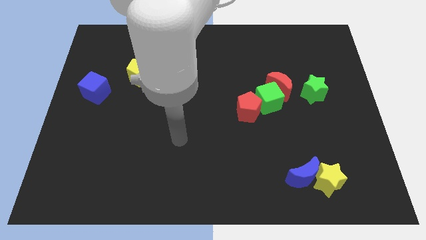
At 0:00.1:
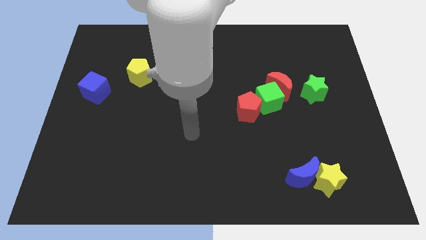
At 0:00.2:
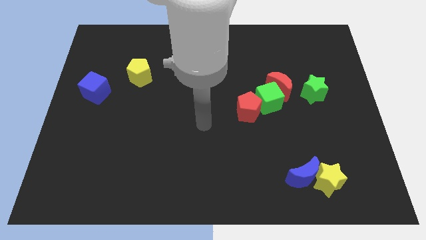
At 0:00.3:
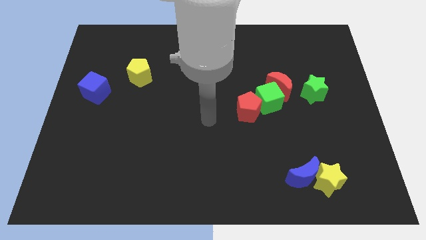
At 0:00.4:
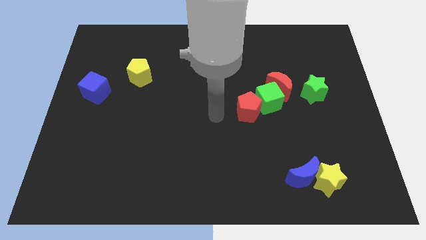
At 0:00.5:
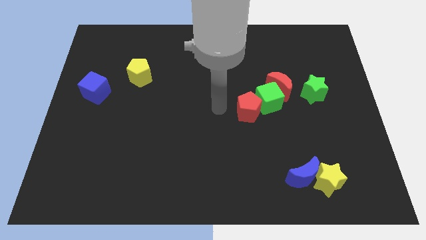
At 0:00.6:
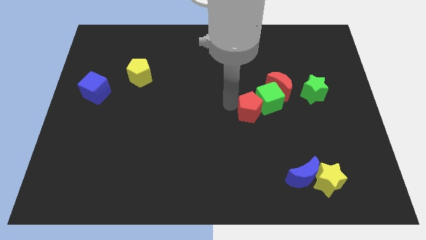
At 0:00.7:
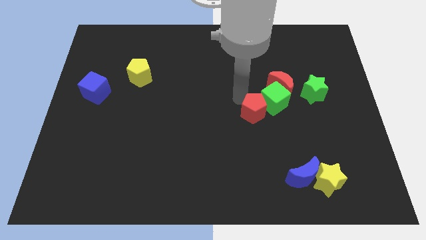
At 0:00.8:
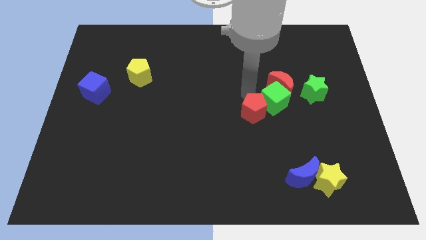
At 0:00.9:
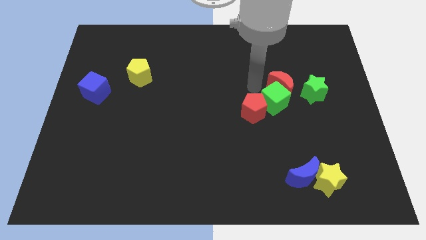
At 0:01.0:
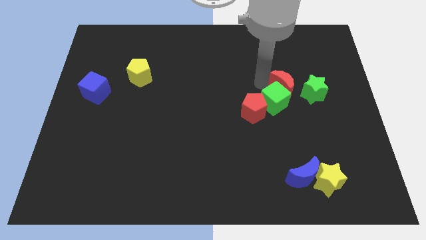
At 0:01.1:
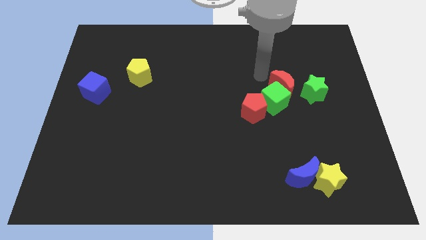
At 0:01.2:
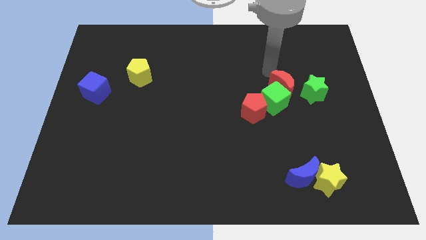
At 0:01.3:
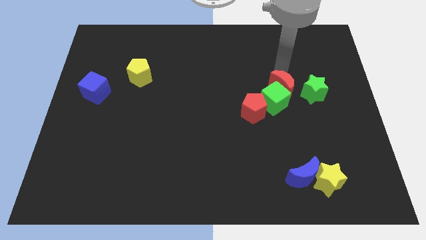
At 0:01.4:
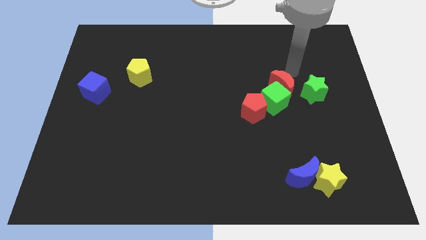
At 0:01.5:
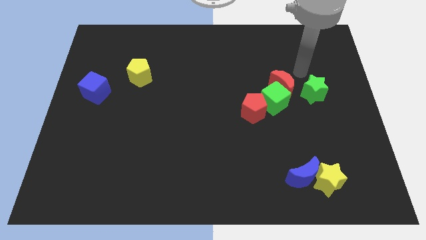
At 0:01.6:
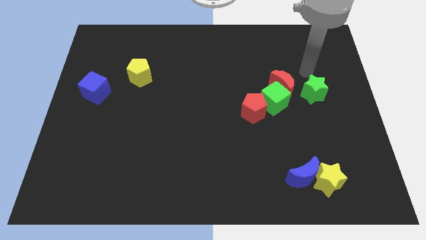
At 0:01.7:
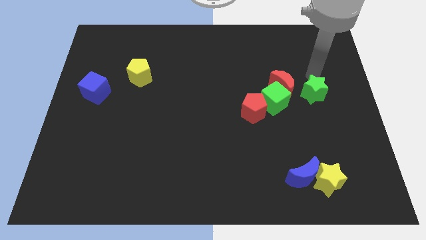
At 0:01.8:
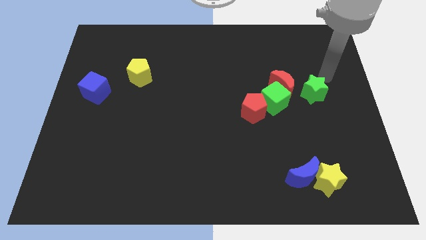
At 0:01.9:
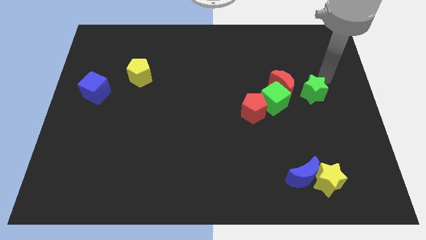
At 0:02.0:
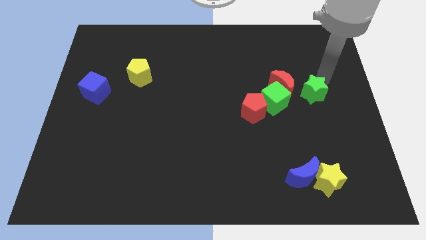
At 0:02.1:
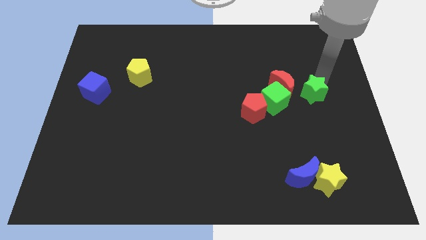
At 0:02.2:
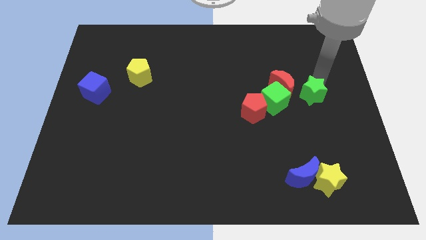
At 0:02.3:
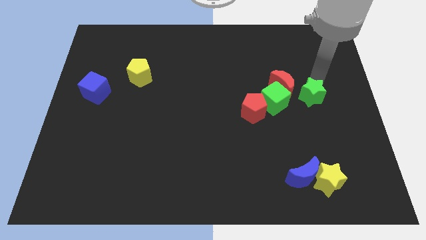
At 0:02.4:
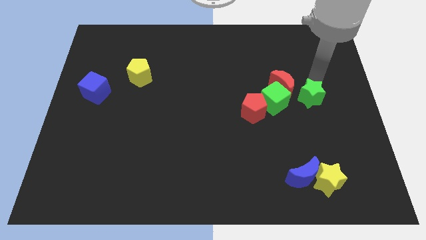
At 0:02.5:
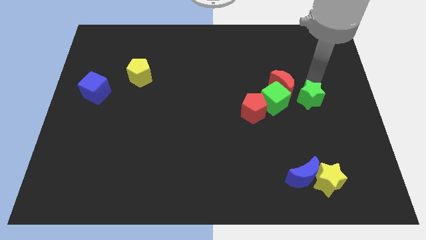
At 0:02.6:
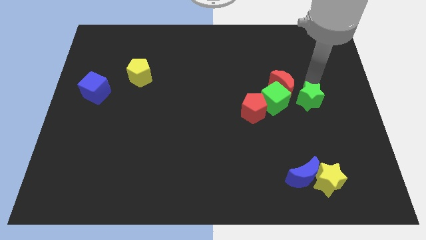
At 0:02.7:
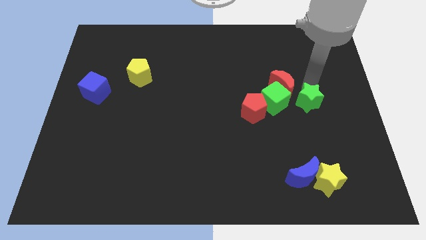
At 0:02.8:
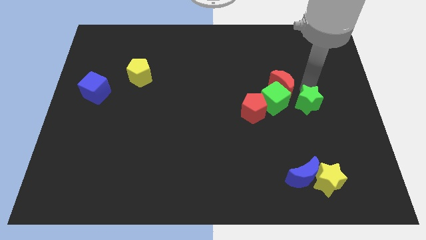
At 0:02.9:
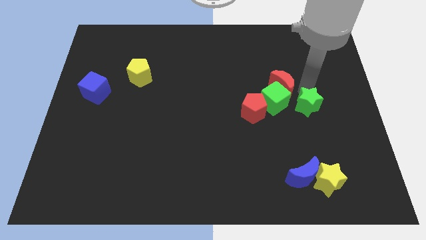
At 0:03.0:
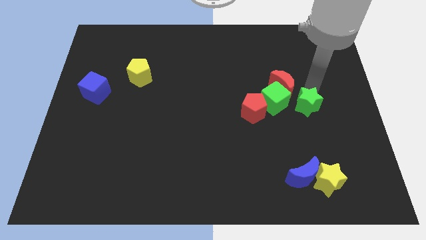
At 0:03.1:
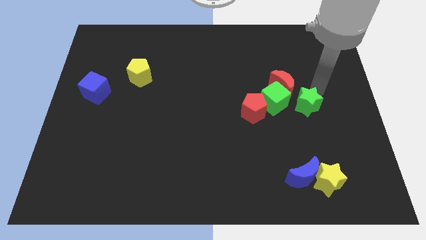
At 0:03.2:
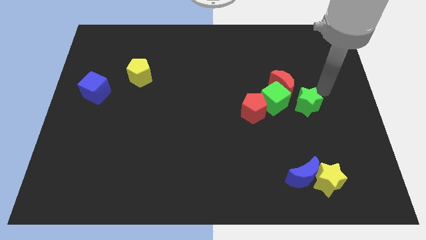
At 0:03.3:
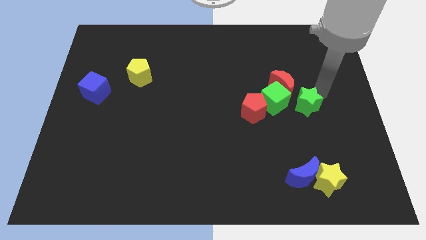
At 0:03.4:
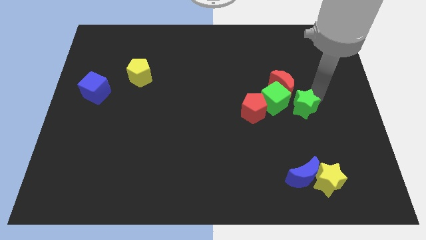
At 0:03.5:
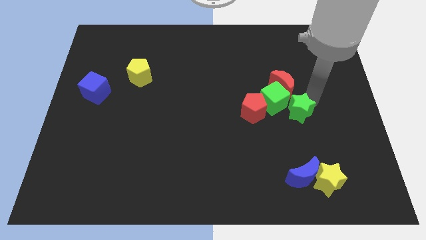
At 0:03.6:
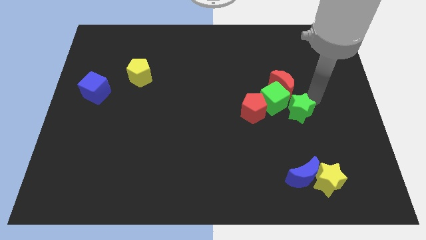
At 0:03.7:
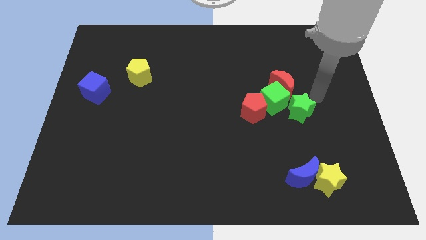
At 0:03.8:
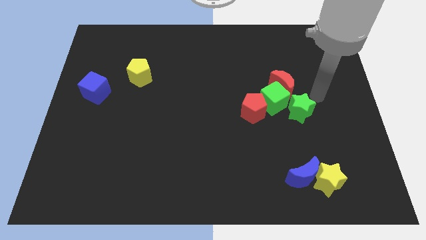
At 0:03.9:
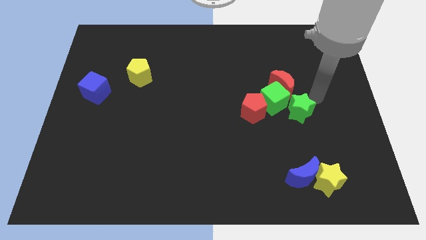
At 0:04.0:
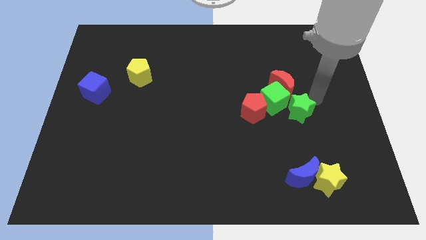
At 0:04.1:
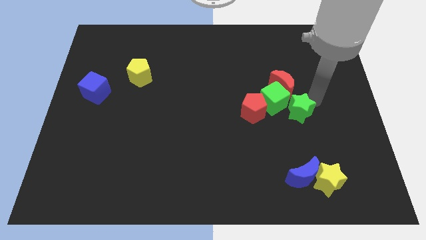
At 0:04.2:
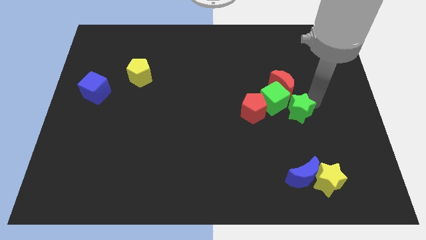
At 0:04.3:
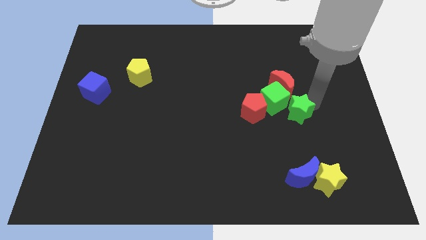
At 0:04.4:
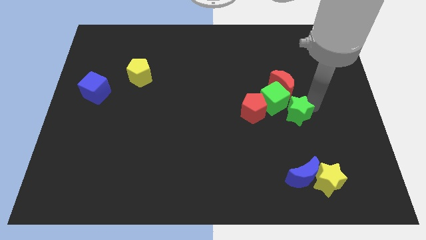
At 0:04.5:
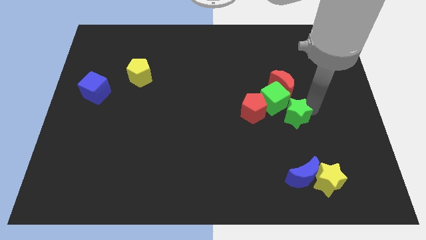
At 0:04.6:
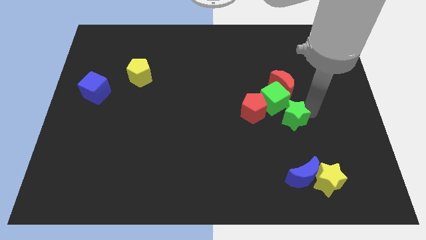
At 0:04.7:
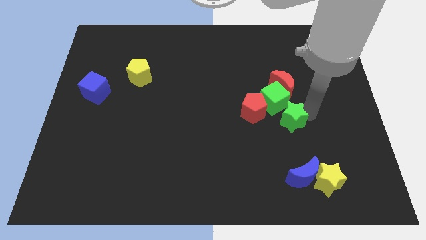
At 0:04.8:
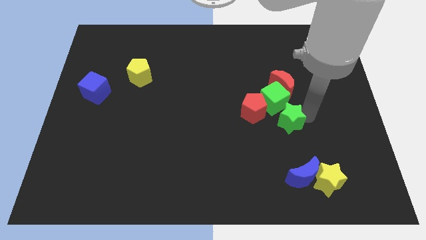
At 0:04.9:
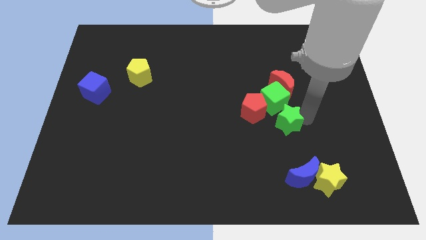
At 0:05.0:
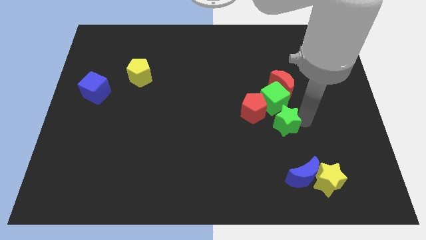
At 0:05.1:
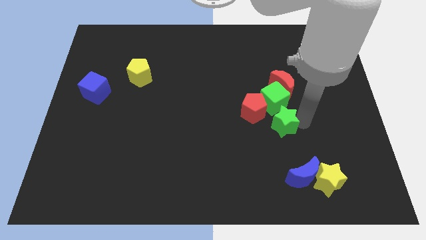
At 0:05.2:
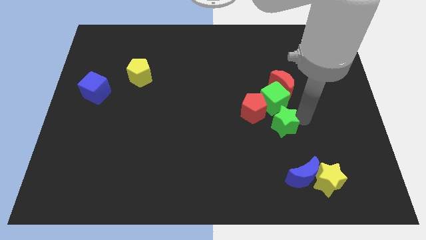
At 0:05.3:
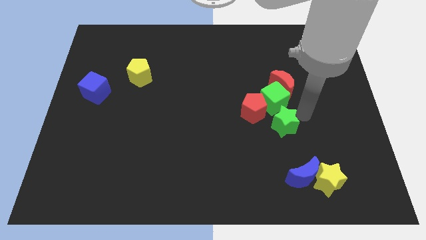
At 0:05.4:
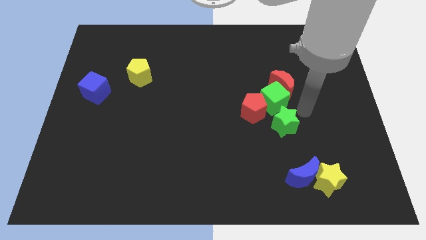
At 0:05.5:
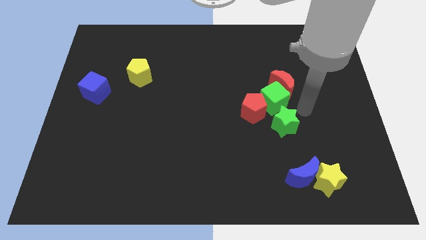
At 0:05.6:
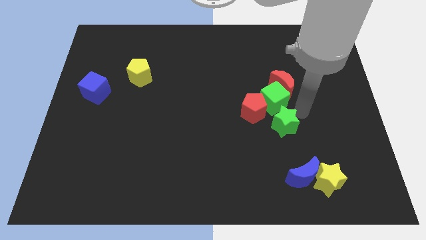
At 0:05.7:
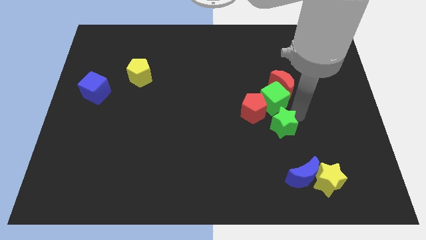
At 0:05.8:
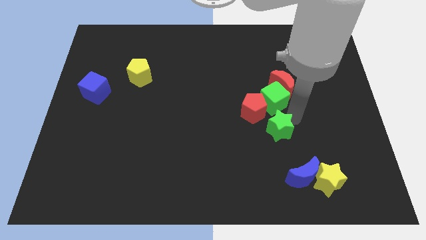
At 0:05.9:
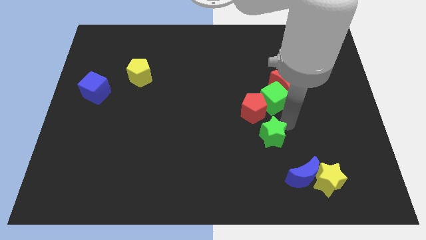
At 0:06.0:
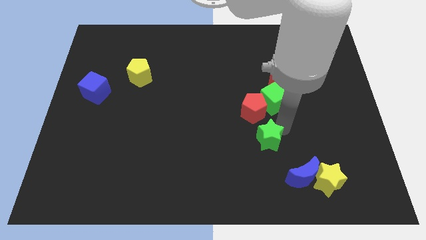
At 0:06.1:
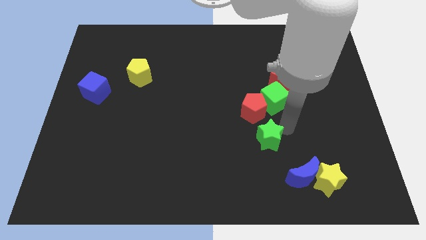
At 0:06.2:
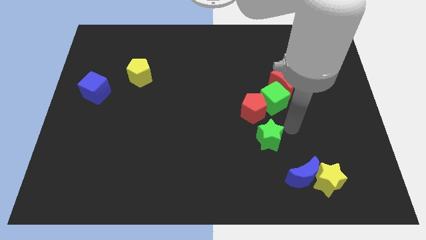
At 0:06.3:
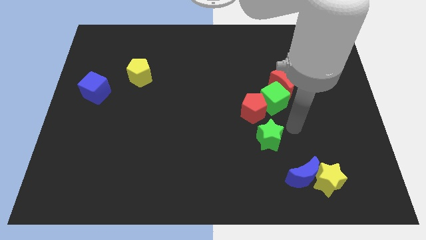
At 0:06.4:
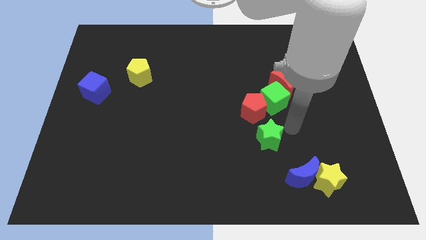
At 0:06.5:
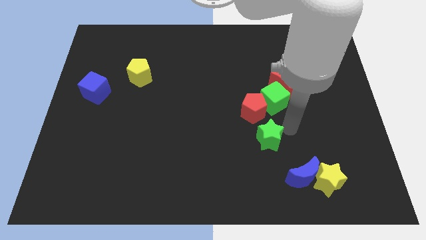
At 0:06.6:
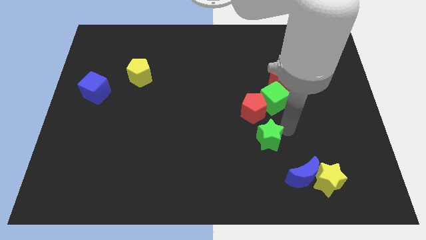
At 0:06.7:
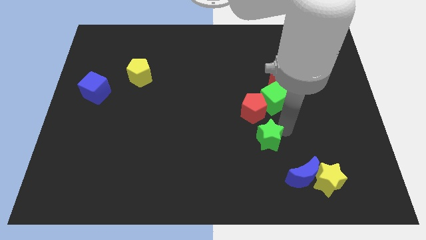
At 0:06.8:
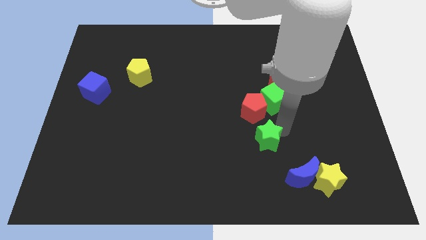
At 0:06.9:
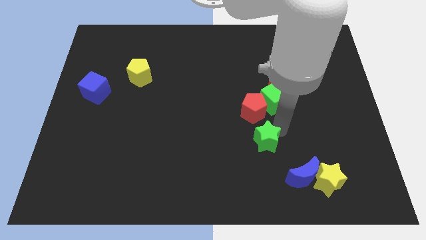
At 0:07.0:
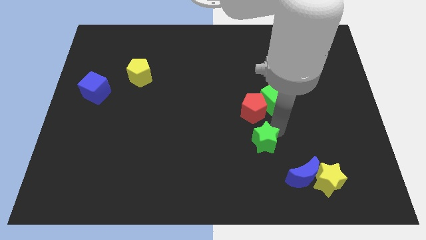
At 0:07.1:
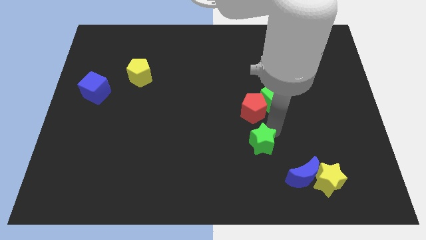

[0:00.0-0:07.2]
push the green star down and then left

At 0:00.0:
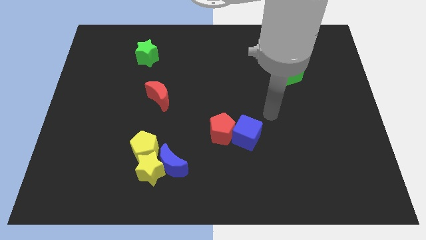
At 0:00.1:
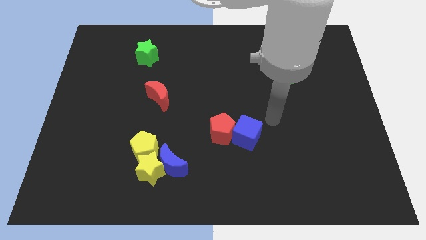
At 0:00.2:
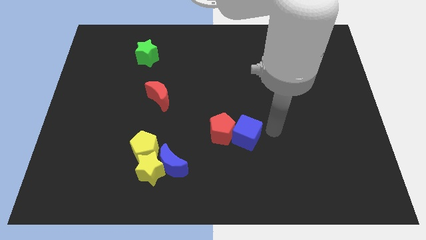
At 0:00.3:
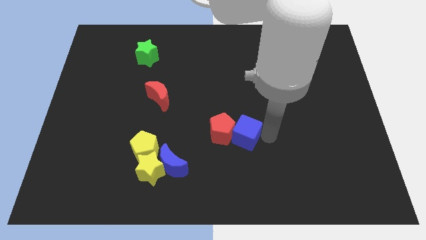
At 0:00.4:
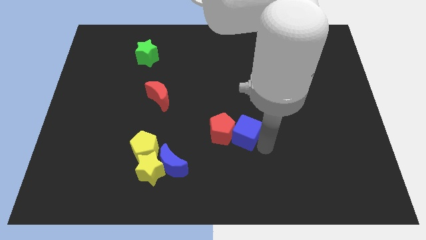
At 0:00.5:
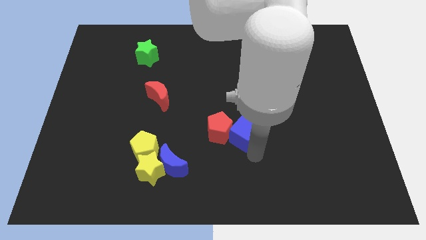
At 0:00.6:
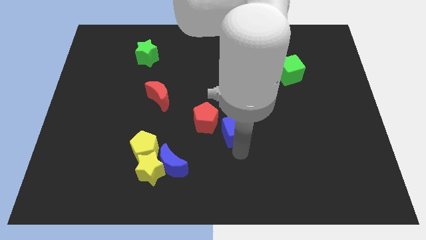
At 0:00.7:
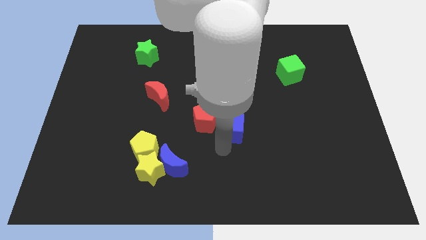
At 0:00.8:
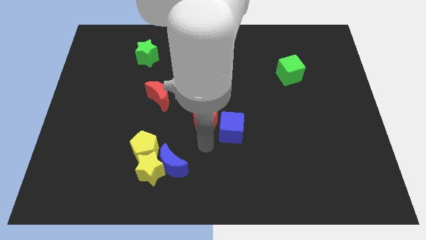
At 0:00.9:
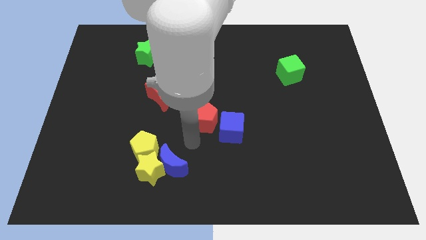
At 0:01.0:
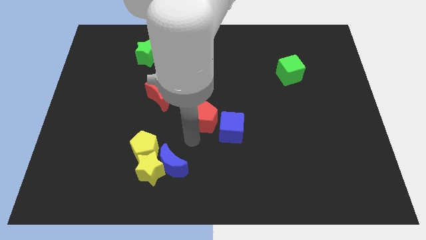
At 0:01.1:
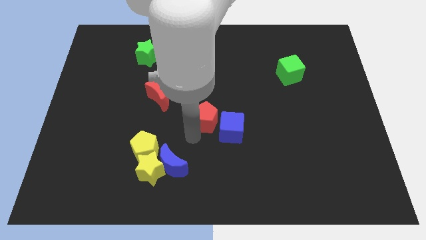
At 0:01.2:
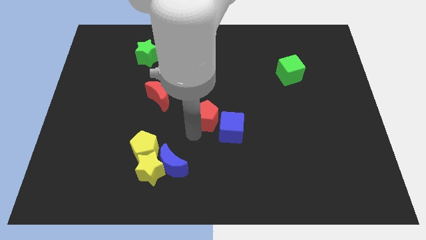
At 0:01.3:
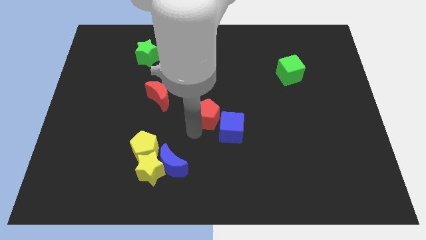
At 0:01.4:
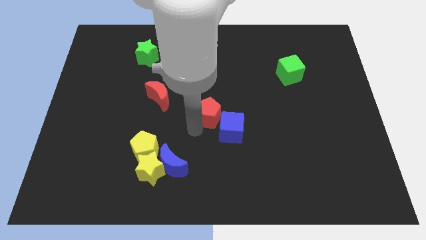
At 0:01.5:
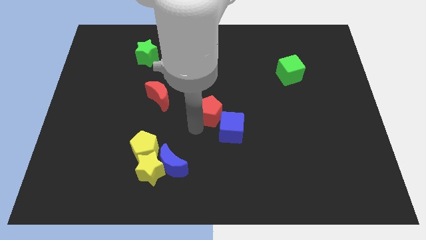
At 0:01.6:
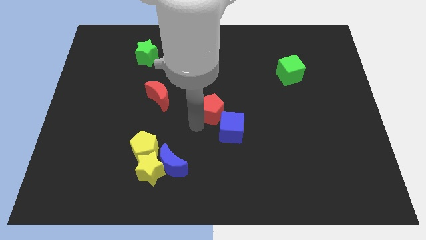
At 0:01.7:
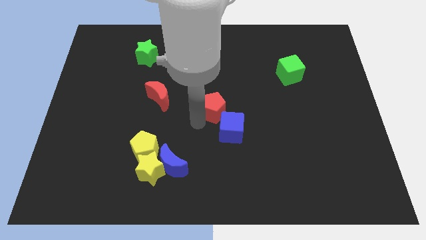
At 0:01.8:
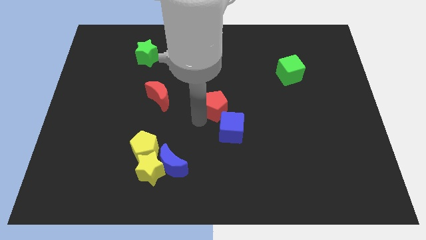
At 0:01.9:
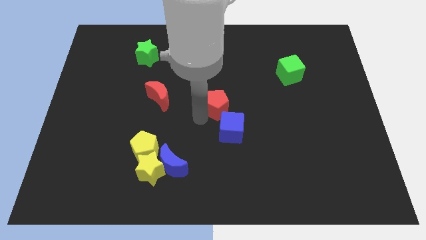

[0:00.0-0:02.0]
push the red pentagon a little up
